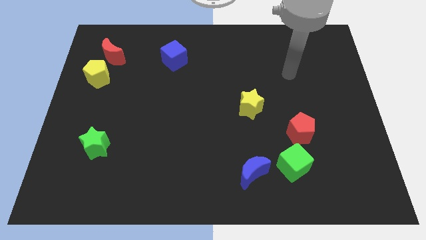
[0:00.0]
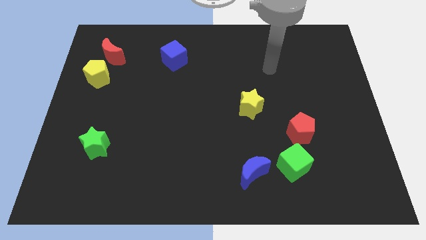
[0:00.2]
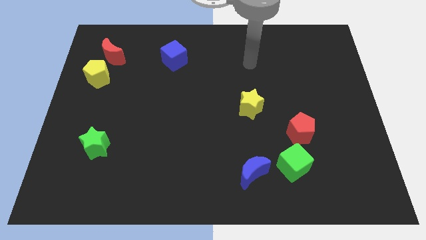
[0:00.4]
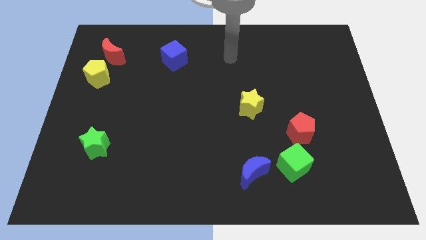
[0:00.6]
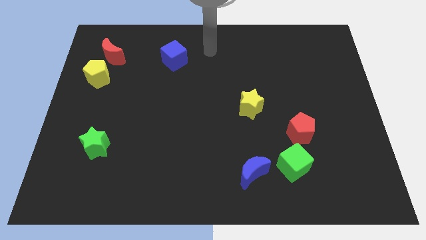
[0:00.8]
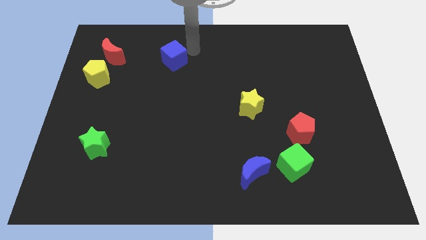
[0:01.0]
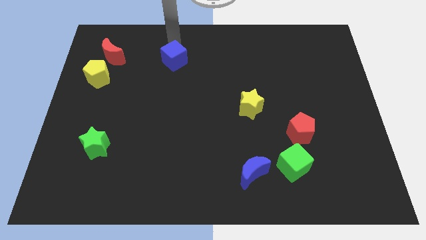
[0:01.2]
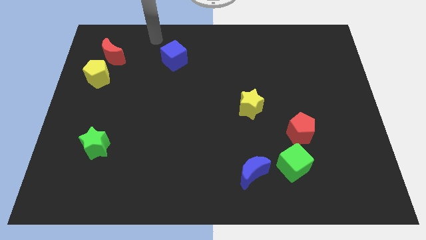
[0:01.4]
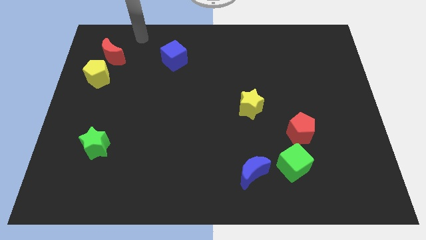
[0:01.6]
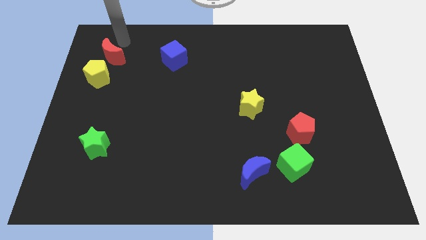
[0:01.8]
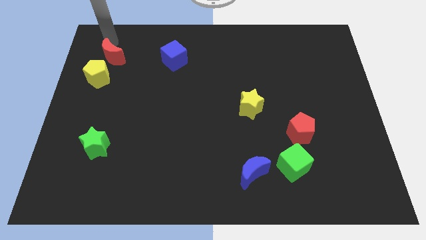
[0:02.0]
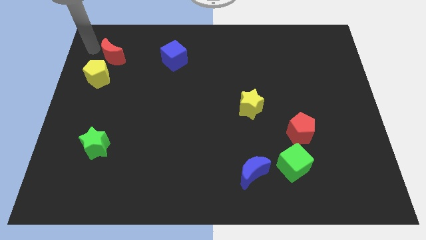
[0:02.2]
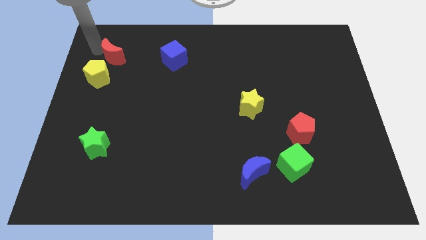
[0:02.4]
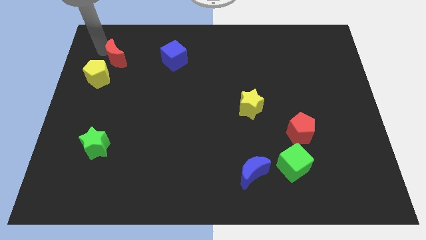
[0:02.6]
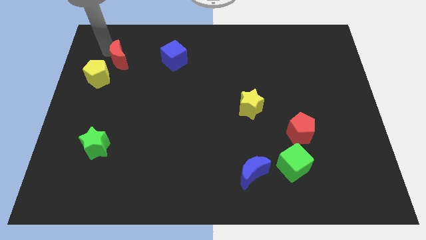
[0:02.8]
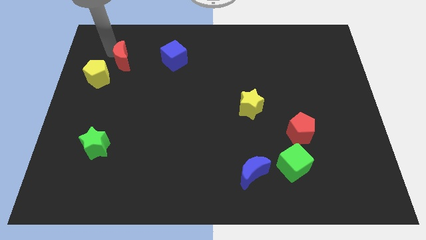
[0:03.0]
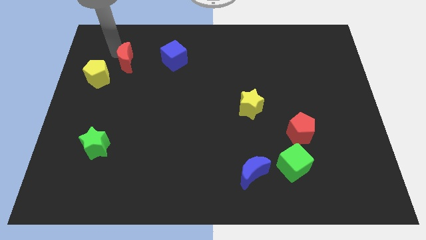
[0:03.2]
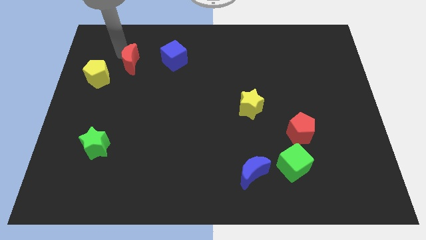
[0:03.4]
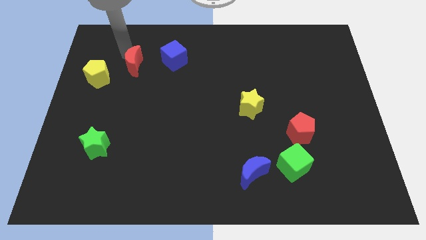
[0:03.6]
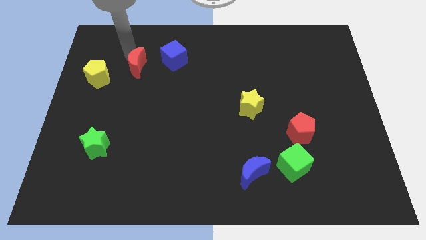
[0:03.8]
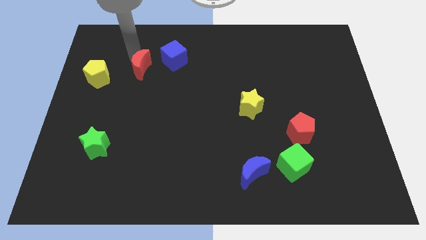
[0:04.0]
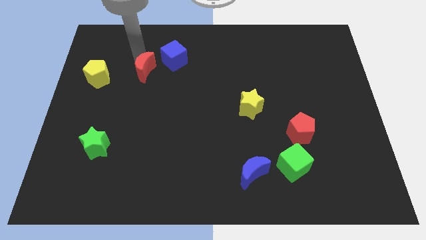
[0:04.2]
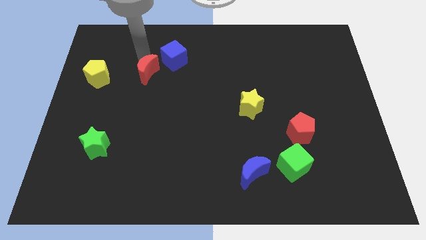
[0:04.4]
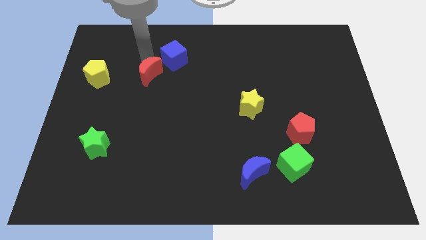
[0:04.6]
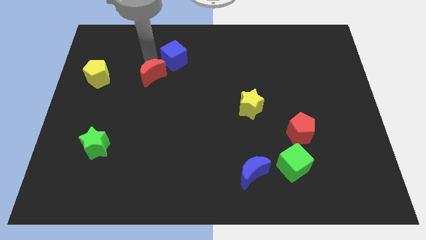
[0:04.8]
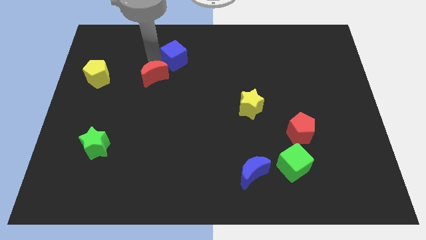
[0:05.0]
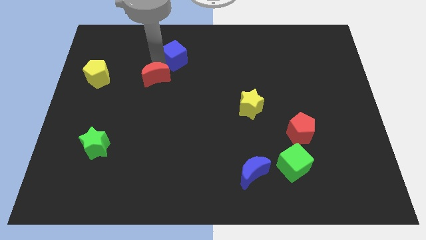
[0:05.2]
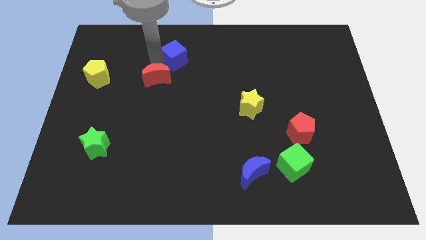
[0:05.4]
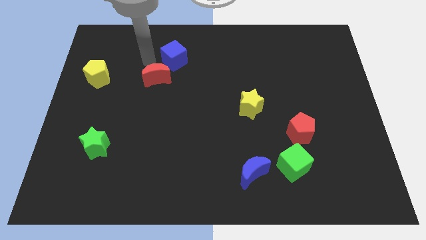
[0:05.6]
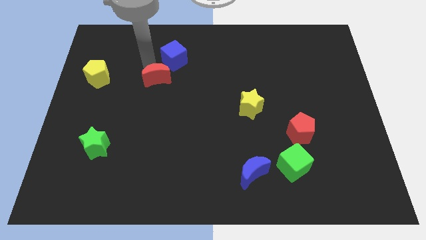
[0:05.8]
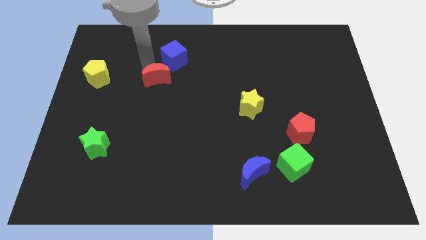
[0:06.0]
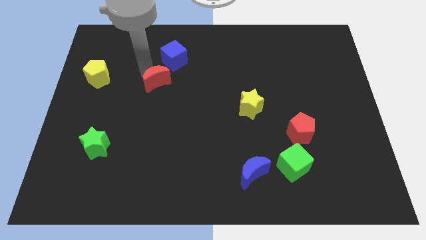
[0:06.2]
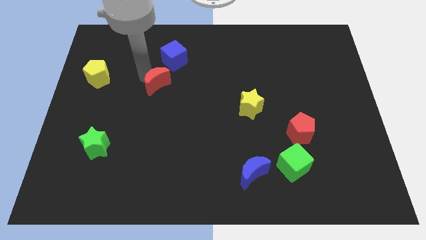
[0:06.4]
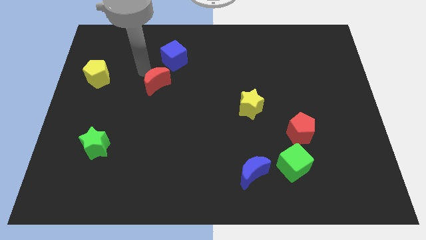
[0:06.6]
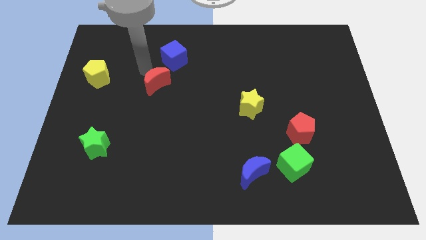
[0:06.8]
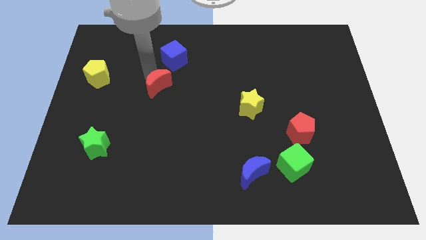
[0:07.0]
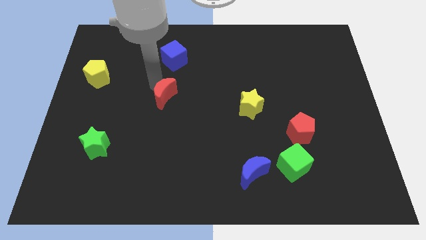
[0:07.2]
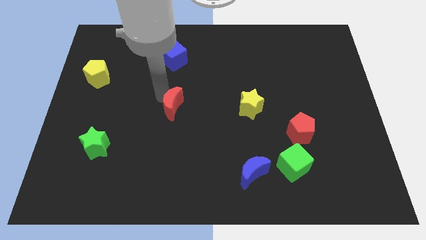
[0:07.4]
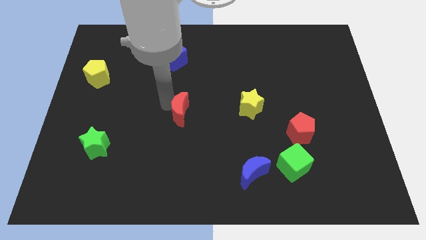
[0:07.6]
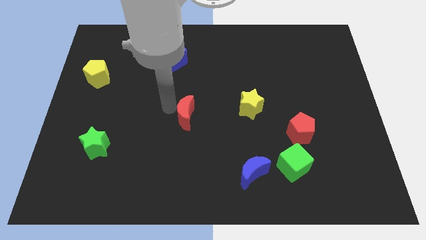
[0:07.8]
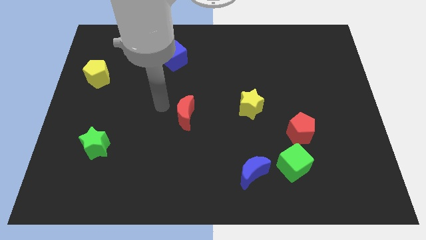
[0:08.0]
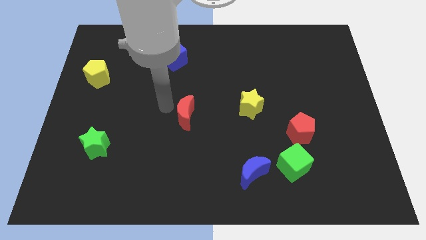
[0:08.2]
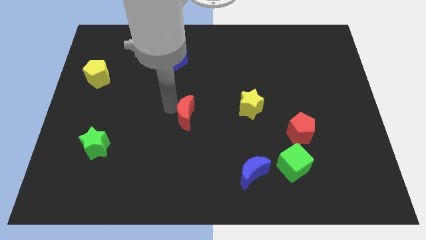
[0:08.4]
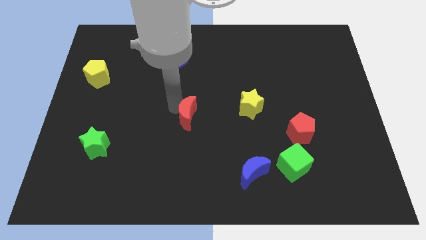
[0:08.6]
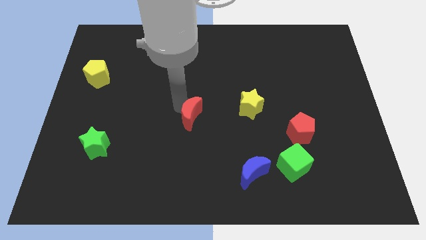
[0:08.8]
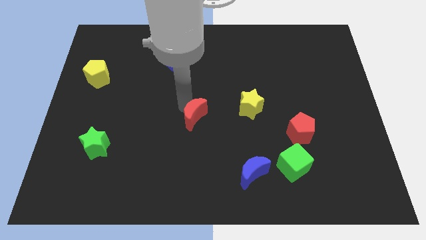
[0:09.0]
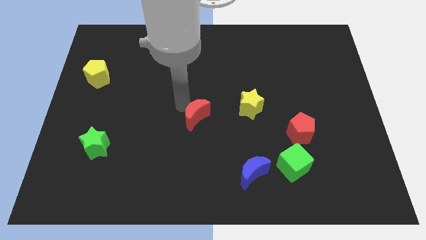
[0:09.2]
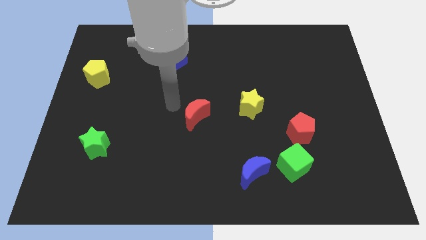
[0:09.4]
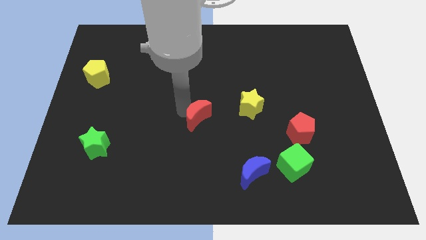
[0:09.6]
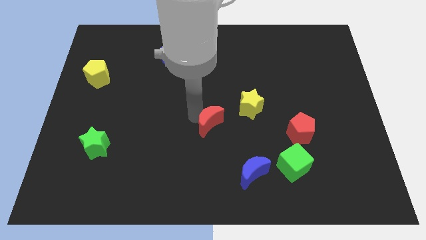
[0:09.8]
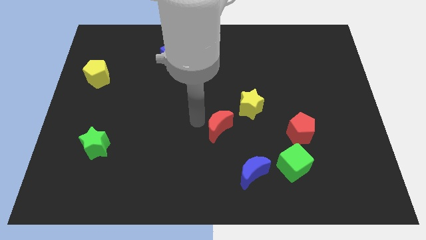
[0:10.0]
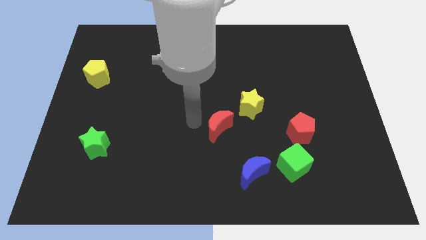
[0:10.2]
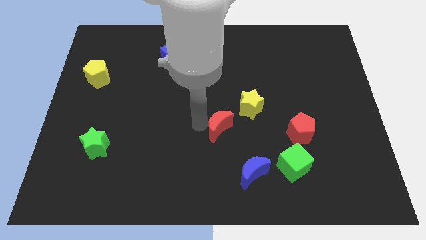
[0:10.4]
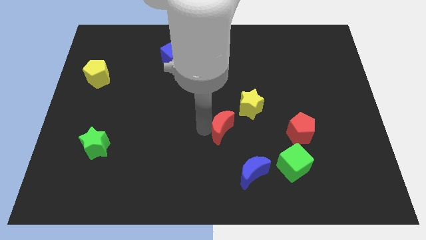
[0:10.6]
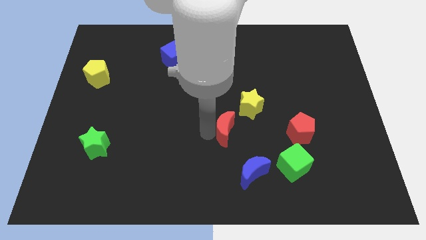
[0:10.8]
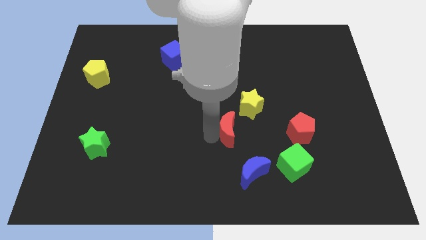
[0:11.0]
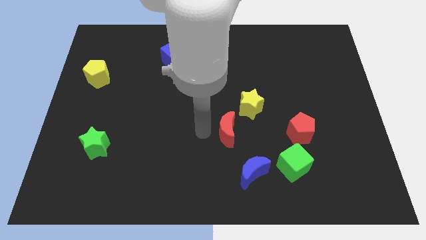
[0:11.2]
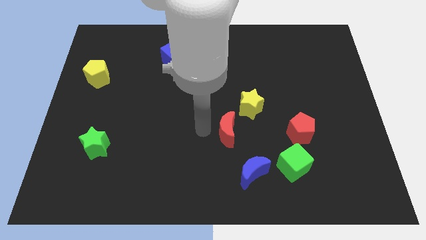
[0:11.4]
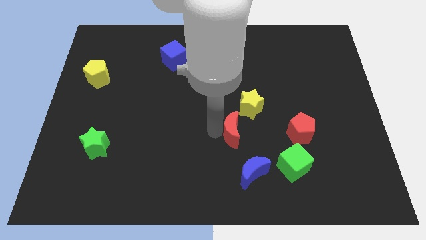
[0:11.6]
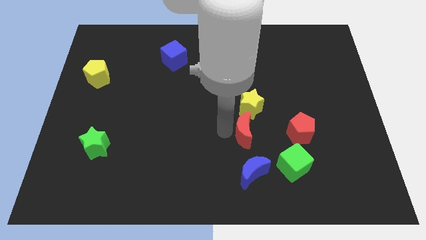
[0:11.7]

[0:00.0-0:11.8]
push the red moon to the top left of the green cube

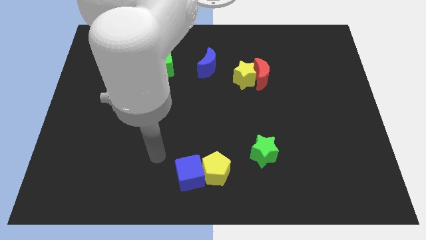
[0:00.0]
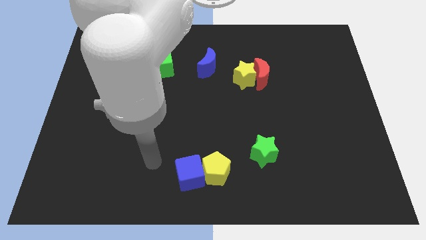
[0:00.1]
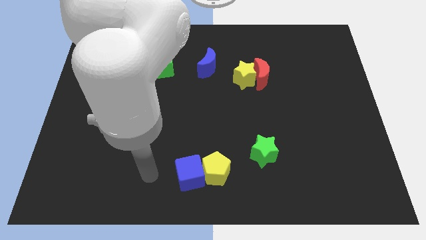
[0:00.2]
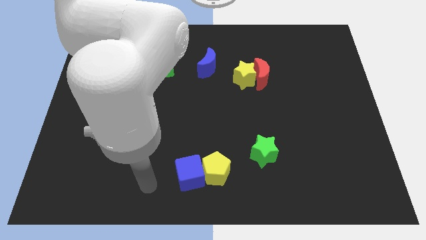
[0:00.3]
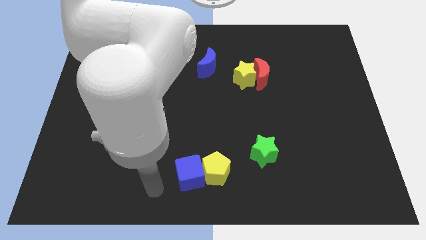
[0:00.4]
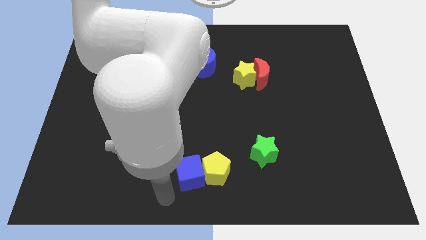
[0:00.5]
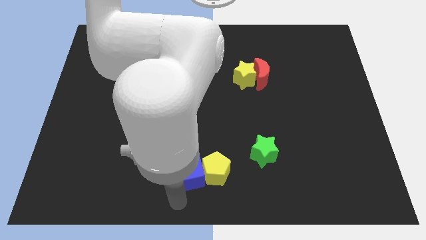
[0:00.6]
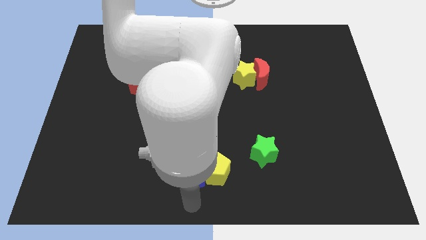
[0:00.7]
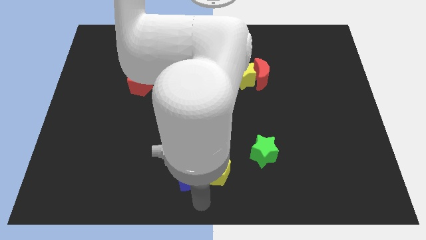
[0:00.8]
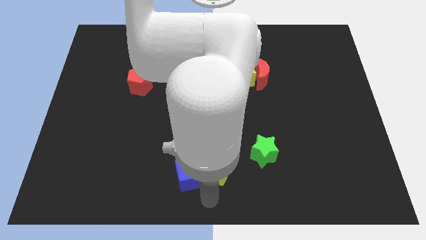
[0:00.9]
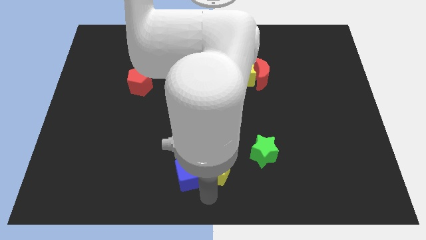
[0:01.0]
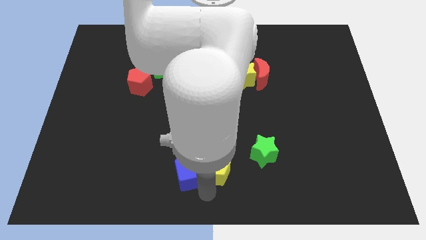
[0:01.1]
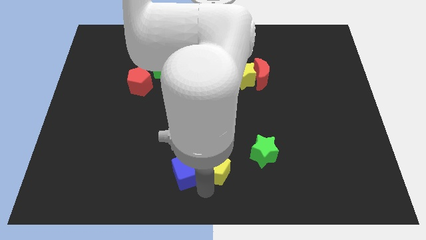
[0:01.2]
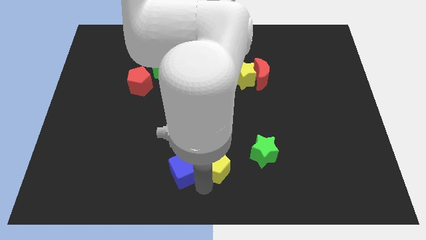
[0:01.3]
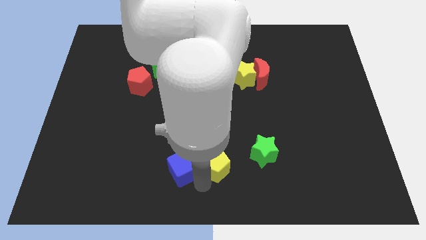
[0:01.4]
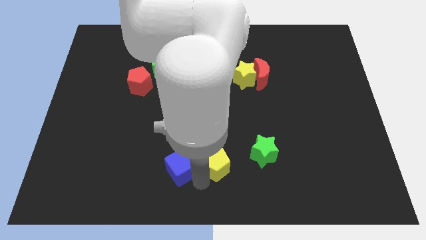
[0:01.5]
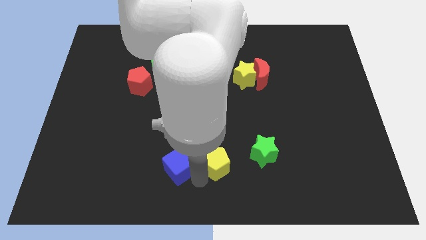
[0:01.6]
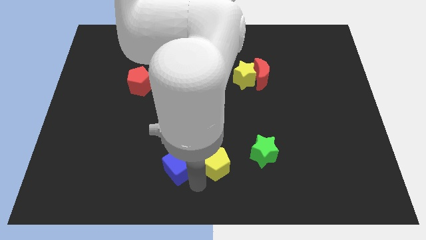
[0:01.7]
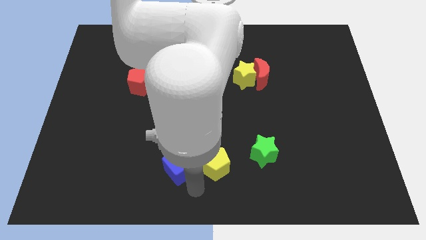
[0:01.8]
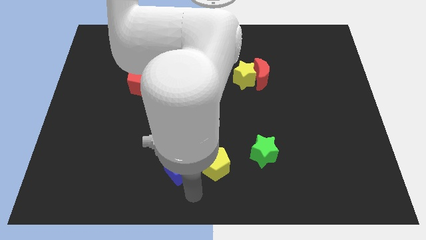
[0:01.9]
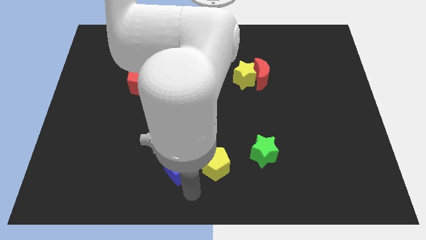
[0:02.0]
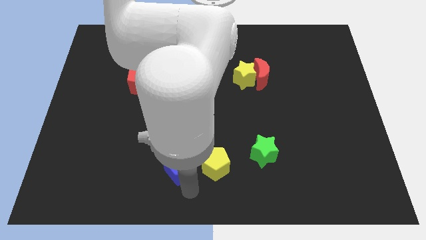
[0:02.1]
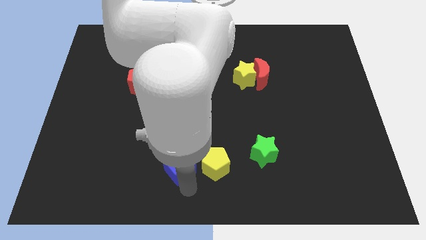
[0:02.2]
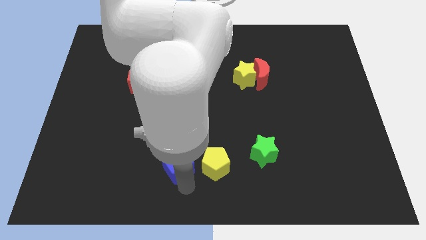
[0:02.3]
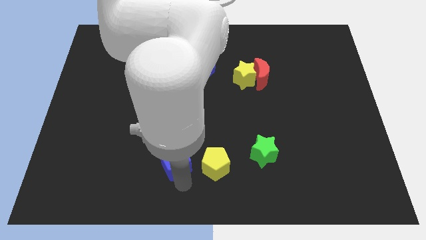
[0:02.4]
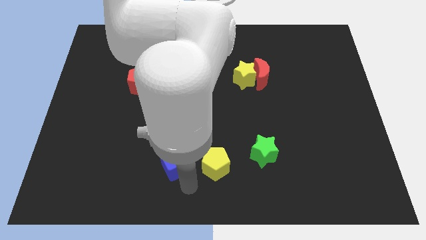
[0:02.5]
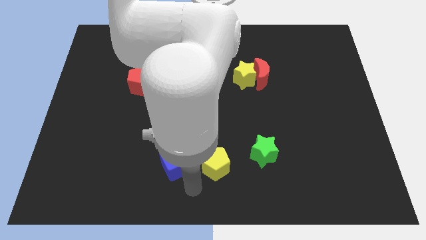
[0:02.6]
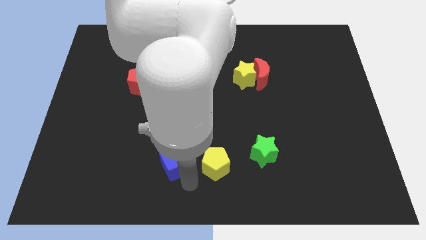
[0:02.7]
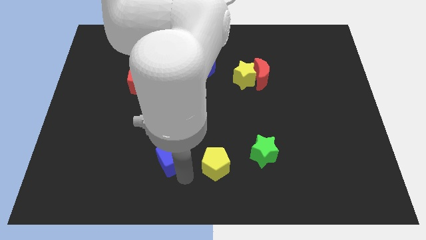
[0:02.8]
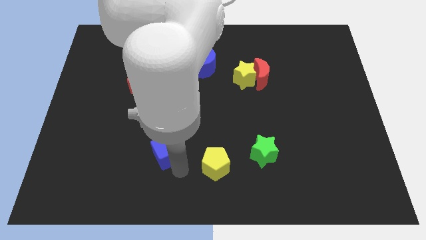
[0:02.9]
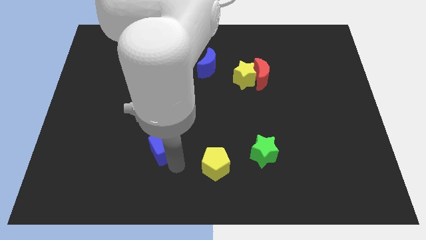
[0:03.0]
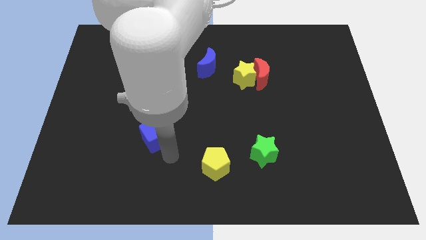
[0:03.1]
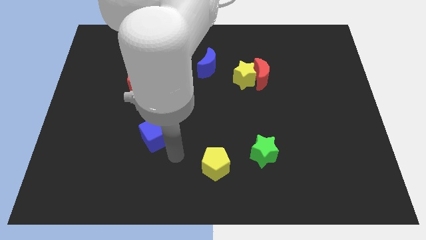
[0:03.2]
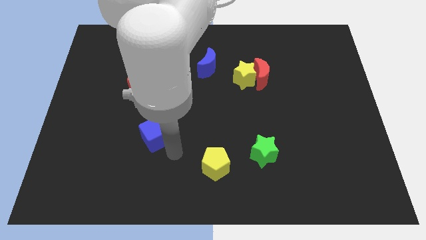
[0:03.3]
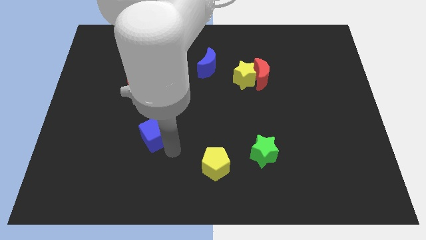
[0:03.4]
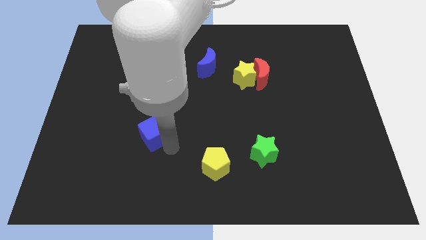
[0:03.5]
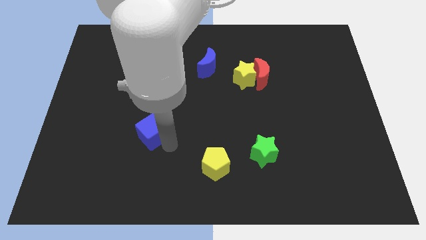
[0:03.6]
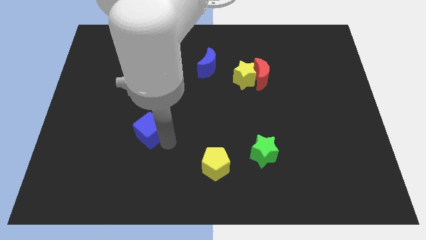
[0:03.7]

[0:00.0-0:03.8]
put the blue cube below the red pentagon
